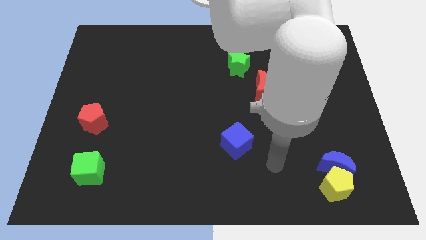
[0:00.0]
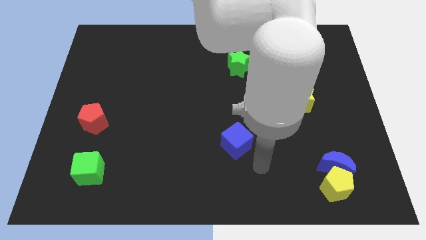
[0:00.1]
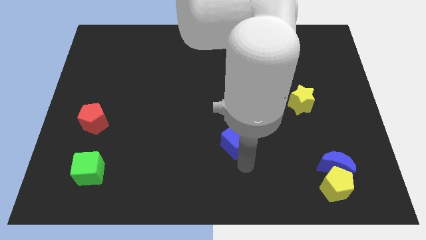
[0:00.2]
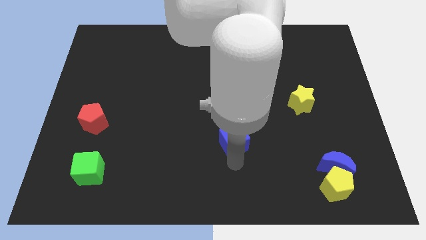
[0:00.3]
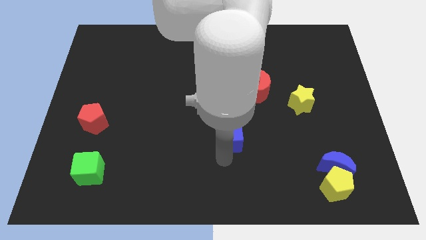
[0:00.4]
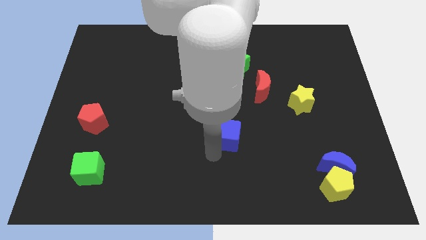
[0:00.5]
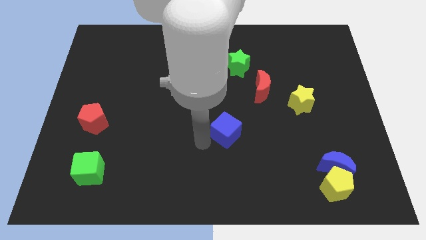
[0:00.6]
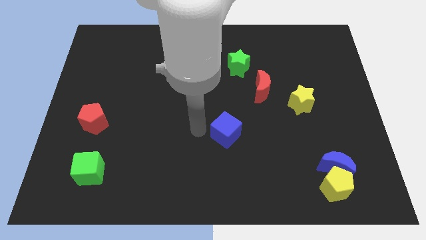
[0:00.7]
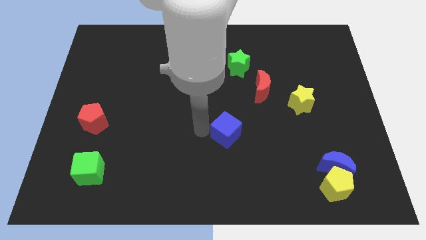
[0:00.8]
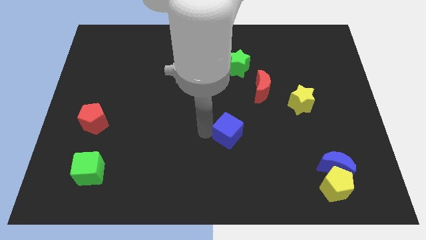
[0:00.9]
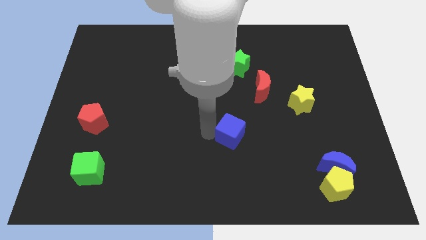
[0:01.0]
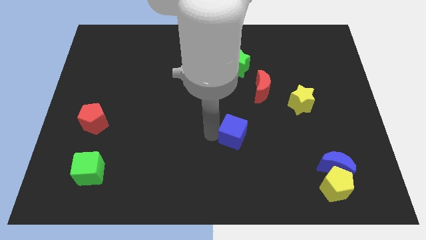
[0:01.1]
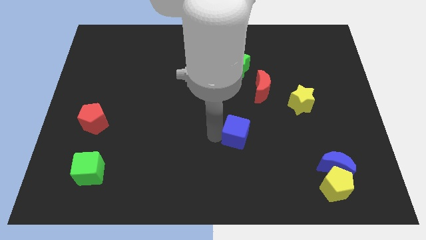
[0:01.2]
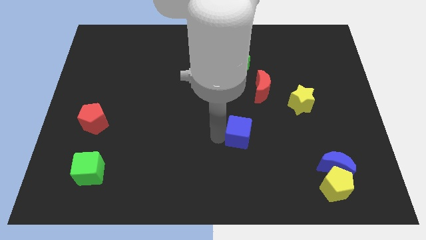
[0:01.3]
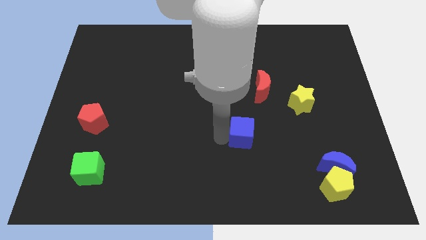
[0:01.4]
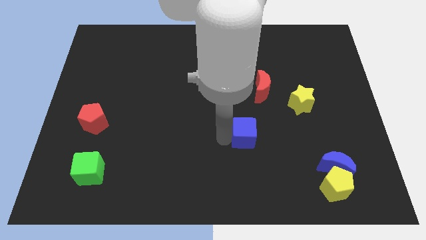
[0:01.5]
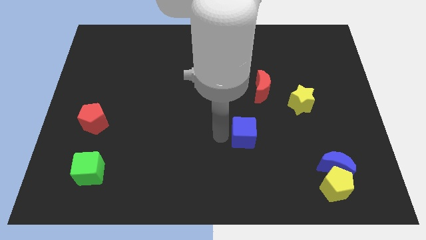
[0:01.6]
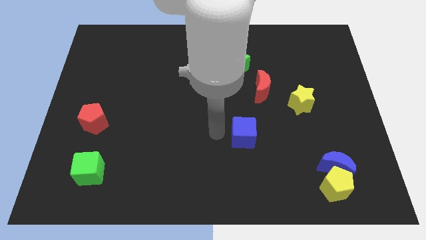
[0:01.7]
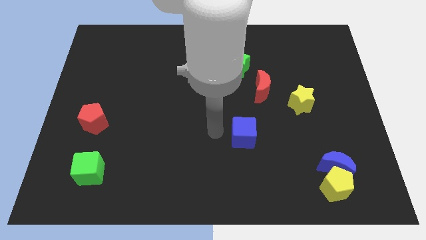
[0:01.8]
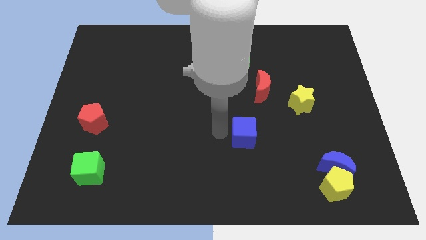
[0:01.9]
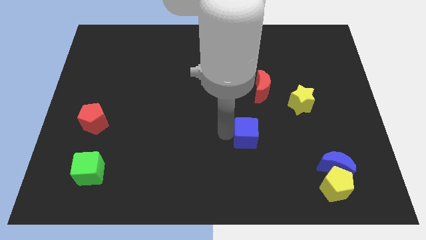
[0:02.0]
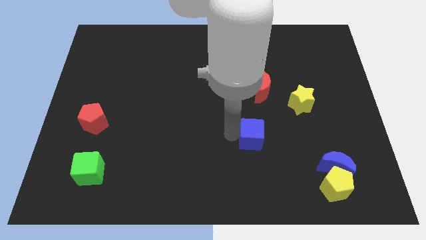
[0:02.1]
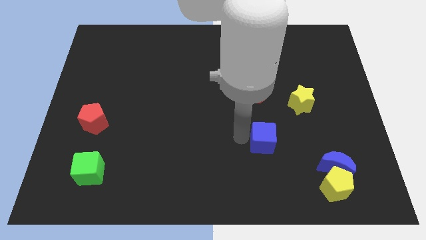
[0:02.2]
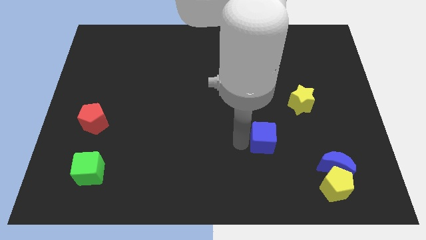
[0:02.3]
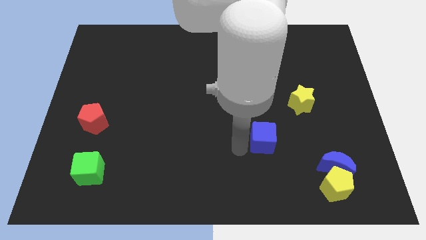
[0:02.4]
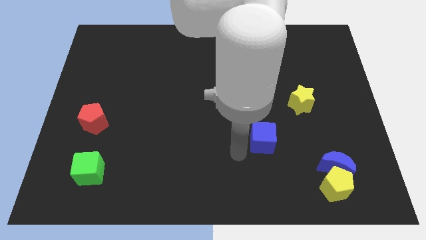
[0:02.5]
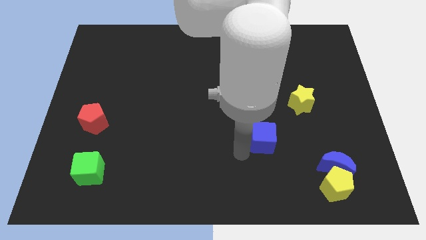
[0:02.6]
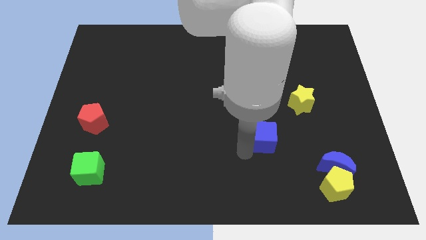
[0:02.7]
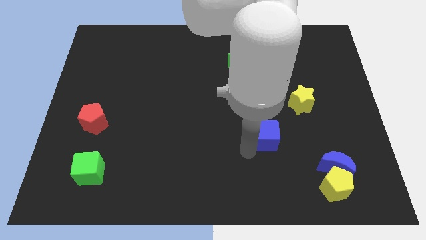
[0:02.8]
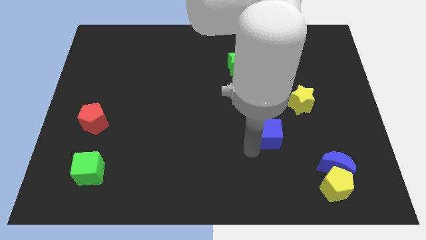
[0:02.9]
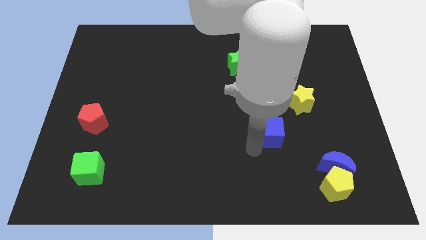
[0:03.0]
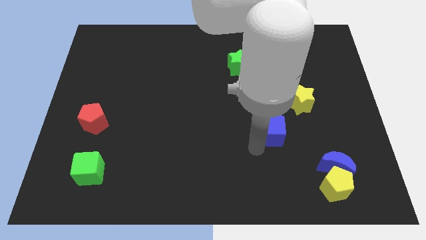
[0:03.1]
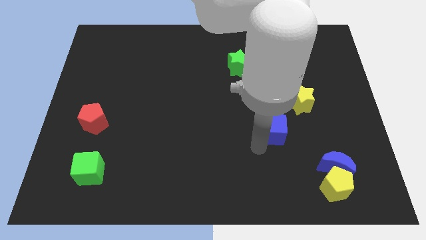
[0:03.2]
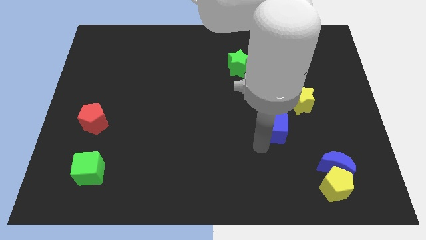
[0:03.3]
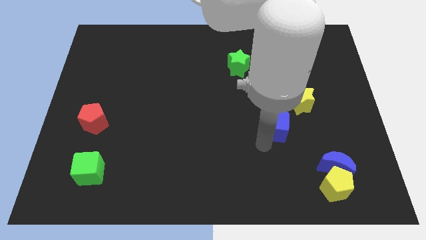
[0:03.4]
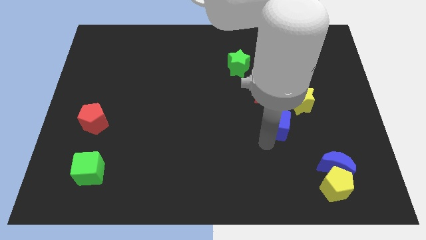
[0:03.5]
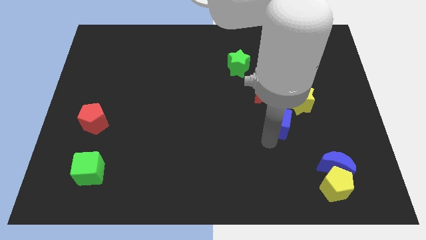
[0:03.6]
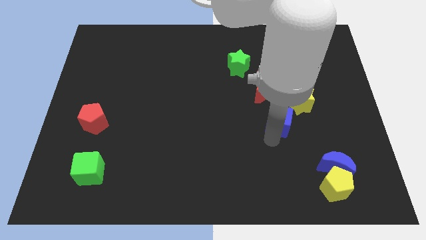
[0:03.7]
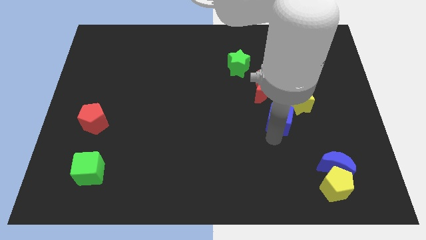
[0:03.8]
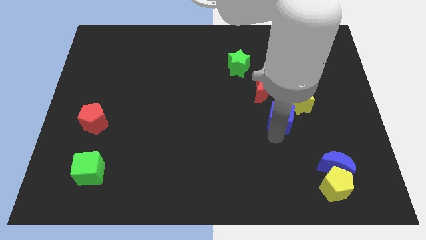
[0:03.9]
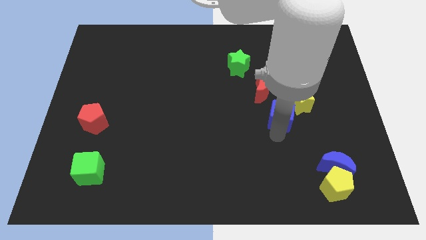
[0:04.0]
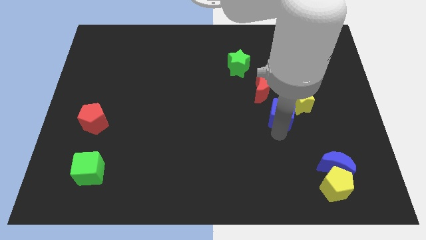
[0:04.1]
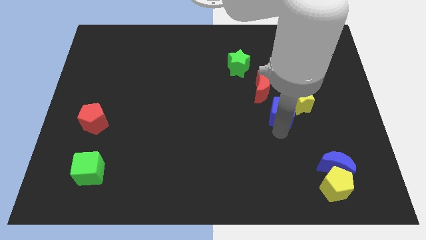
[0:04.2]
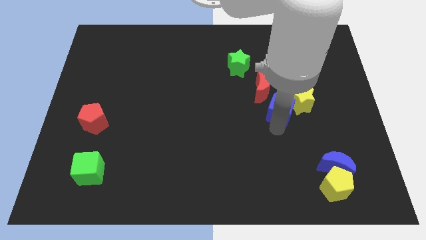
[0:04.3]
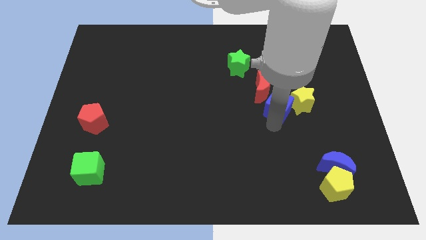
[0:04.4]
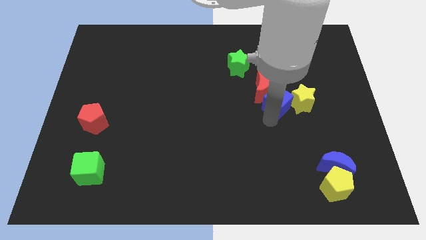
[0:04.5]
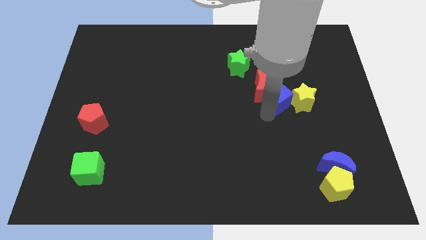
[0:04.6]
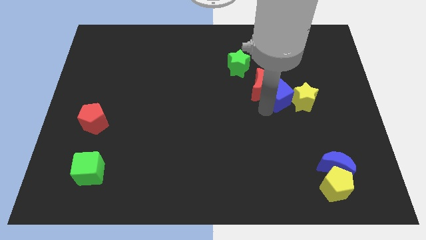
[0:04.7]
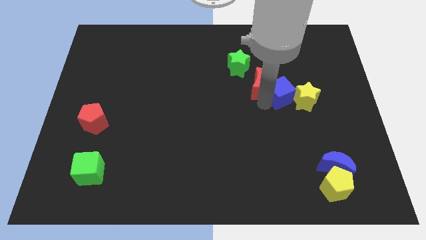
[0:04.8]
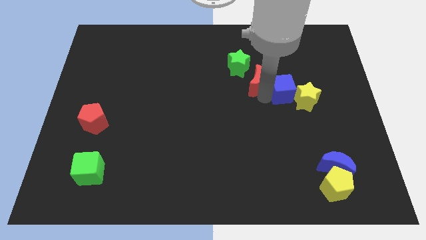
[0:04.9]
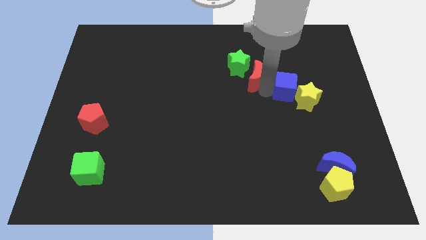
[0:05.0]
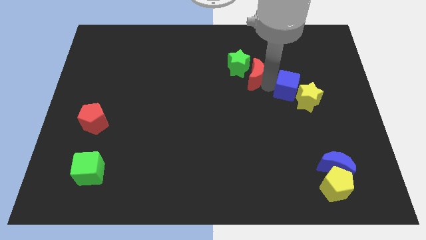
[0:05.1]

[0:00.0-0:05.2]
slide the blue cube diagonally upwards and to the right

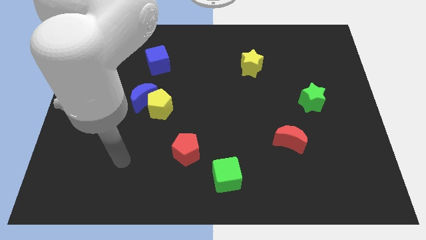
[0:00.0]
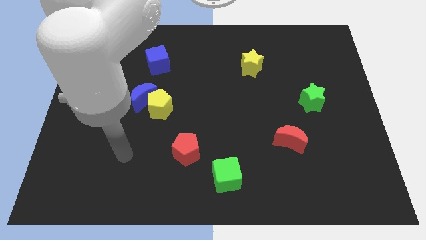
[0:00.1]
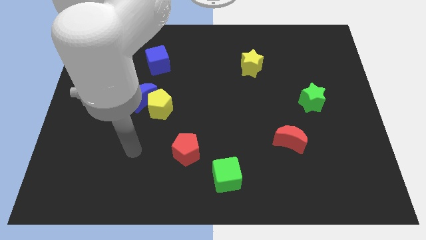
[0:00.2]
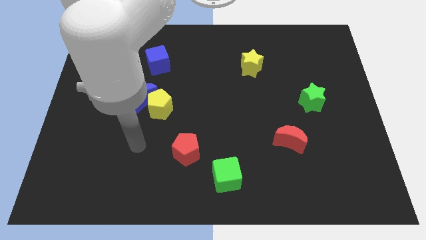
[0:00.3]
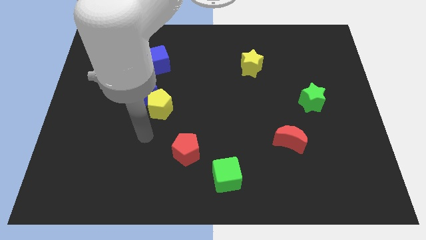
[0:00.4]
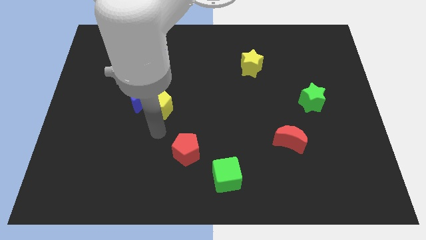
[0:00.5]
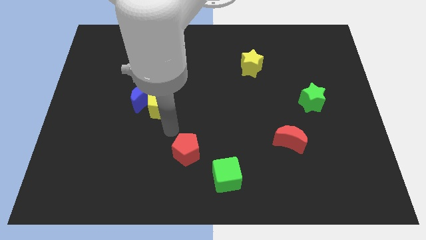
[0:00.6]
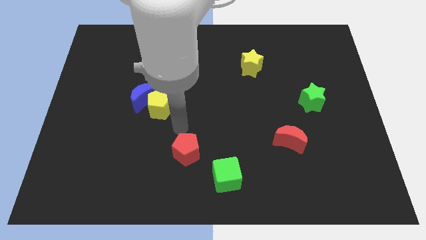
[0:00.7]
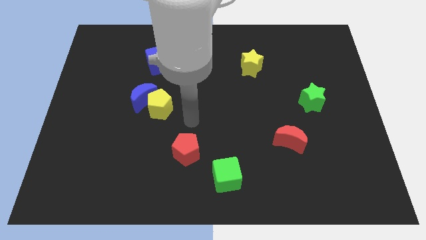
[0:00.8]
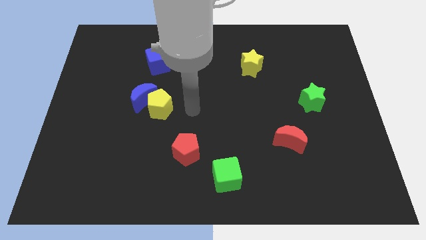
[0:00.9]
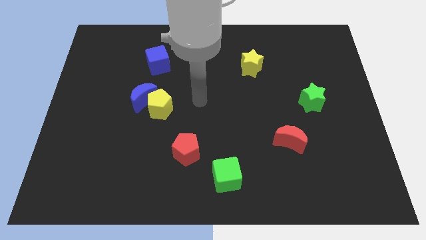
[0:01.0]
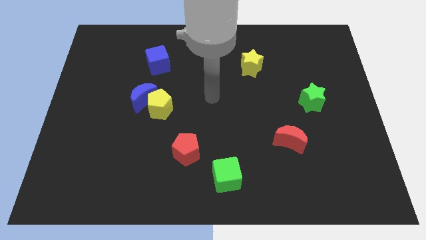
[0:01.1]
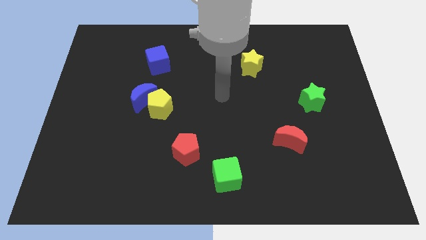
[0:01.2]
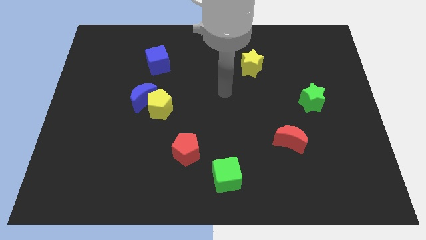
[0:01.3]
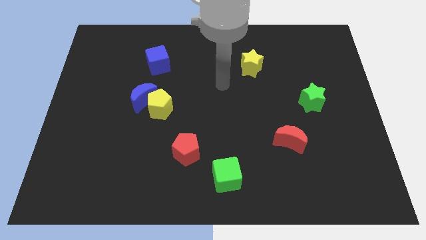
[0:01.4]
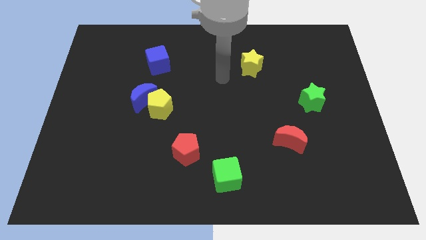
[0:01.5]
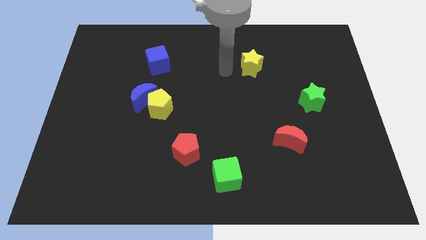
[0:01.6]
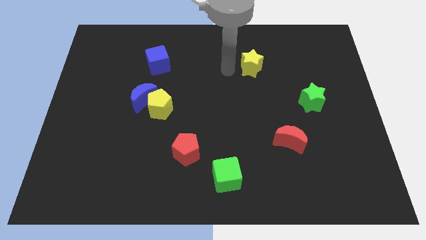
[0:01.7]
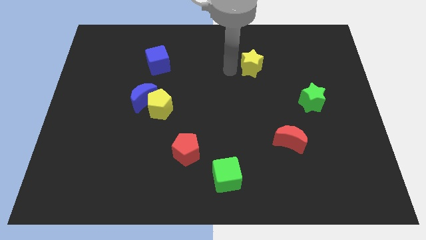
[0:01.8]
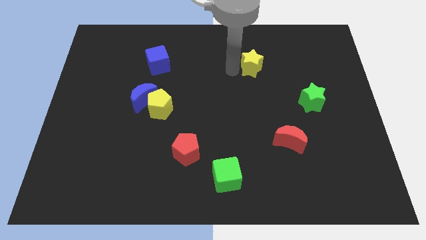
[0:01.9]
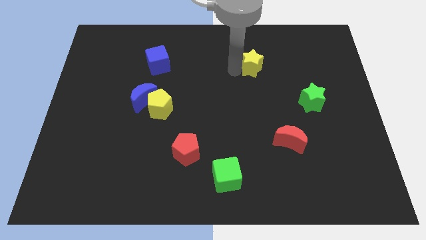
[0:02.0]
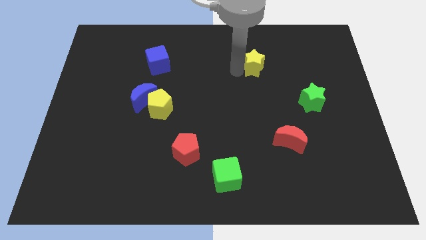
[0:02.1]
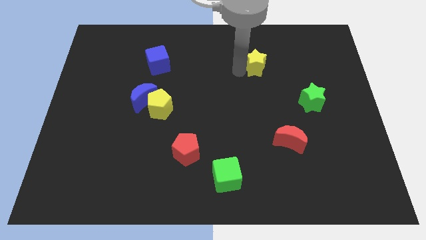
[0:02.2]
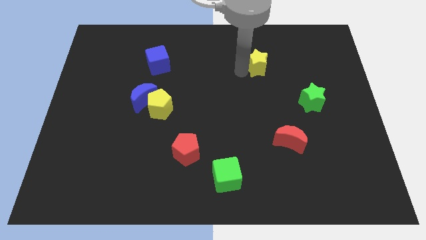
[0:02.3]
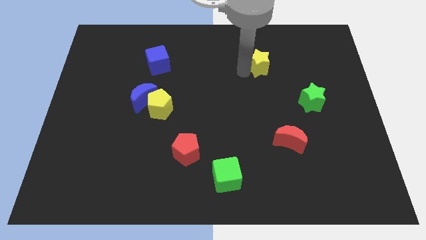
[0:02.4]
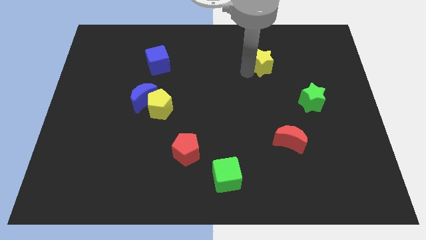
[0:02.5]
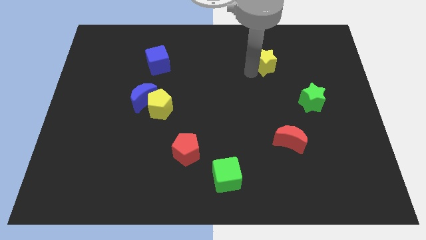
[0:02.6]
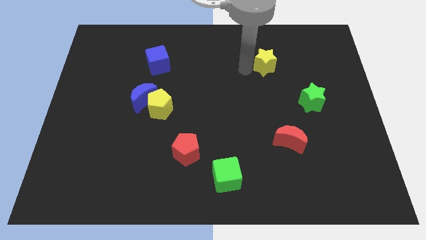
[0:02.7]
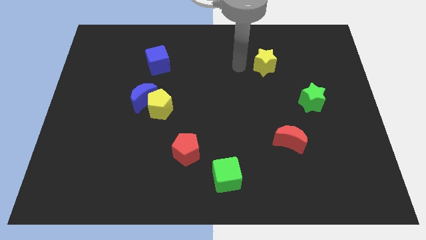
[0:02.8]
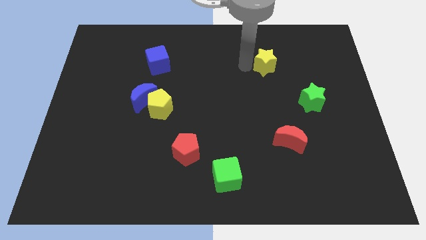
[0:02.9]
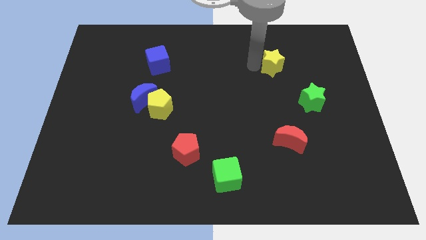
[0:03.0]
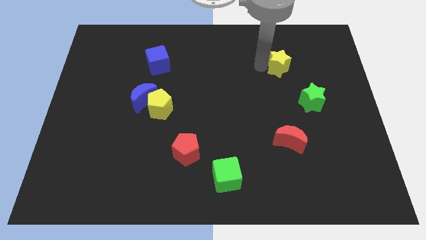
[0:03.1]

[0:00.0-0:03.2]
slide the yellow star right a little bit
